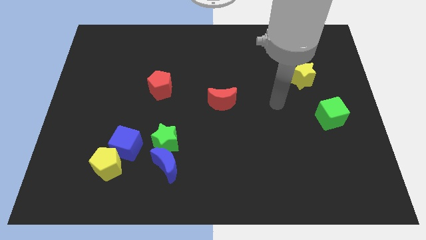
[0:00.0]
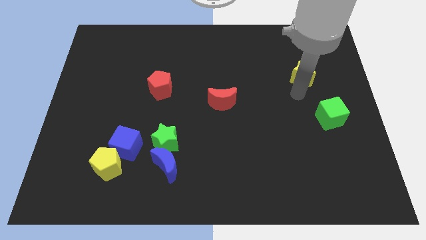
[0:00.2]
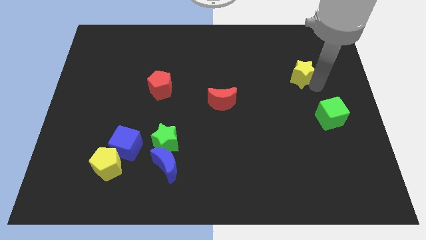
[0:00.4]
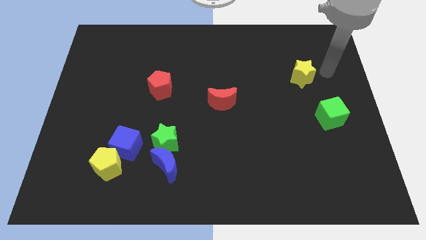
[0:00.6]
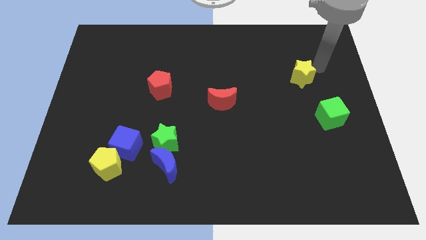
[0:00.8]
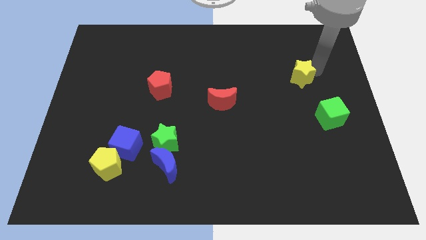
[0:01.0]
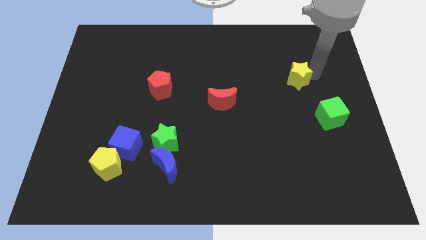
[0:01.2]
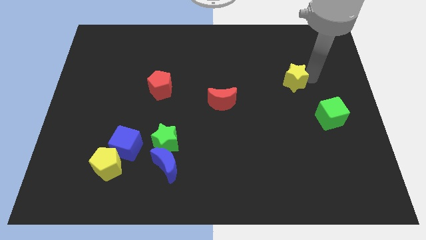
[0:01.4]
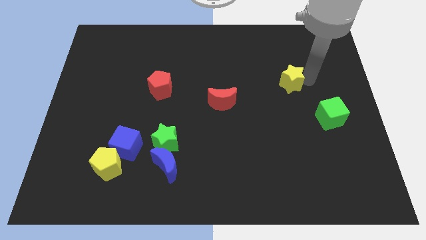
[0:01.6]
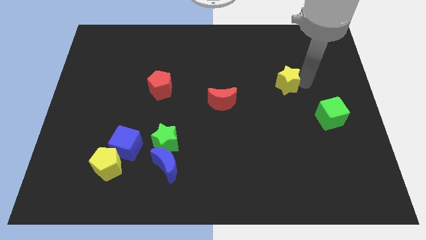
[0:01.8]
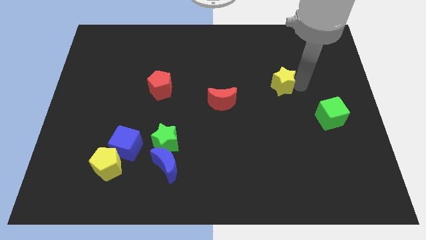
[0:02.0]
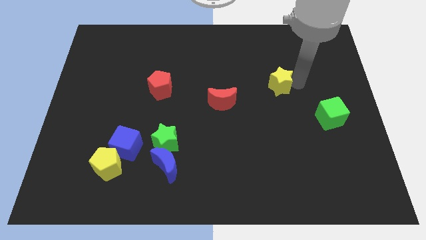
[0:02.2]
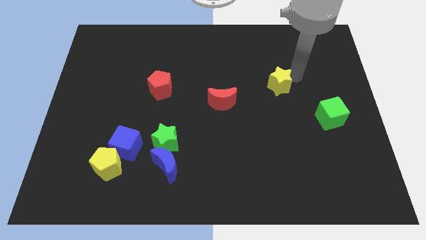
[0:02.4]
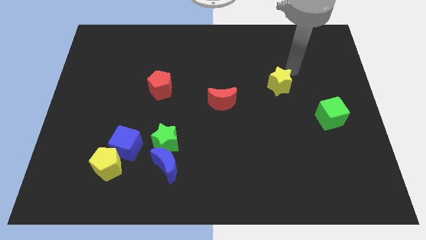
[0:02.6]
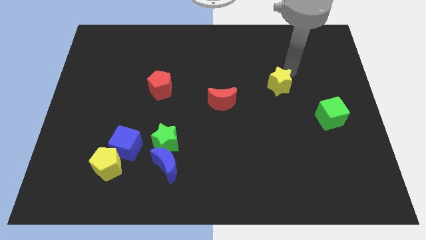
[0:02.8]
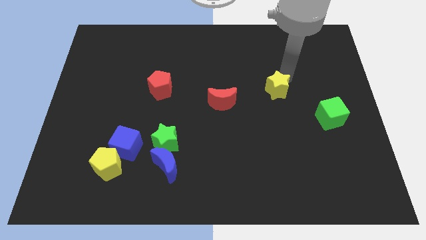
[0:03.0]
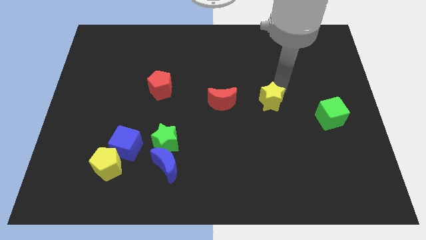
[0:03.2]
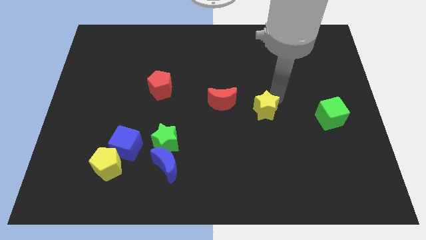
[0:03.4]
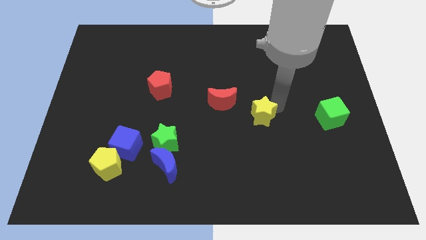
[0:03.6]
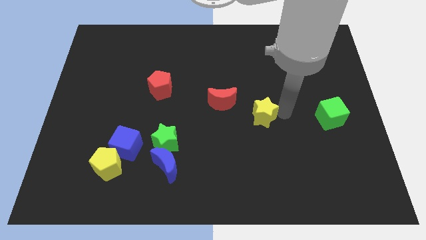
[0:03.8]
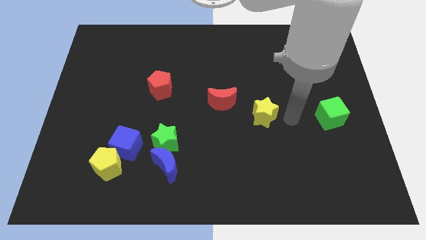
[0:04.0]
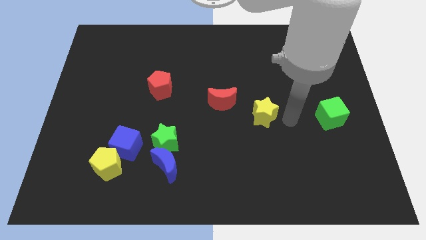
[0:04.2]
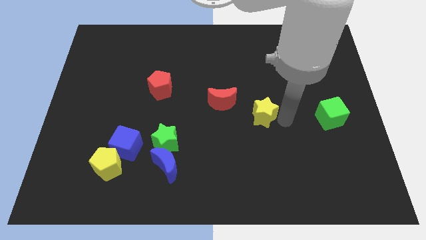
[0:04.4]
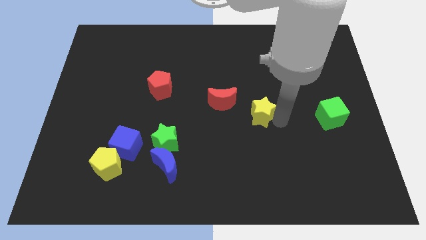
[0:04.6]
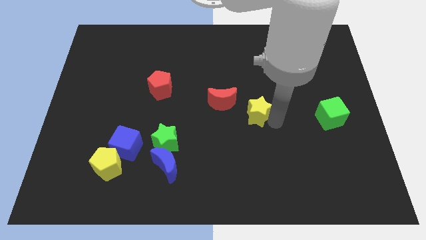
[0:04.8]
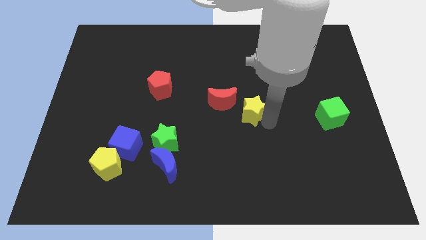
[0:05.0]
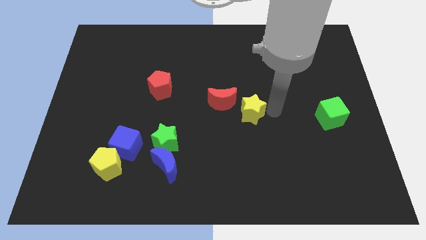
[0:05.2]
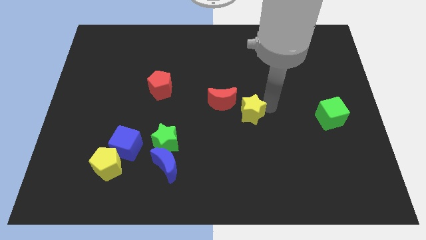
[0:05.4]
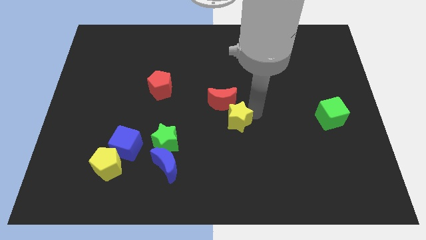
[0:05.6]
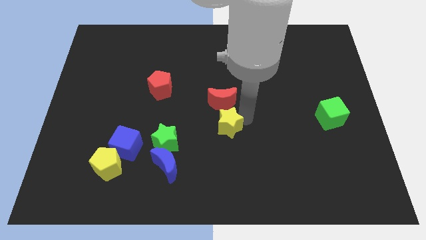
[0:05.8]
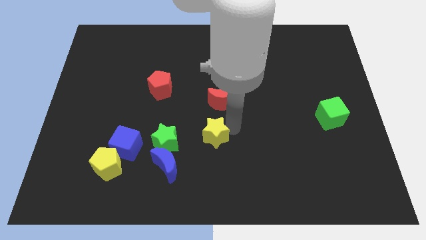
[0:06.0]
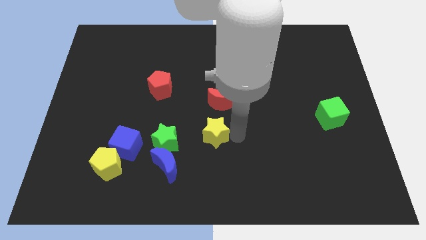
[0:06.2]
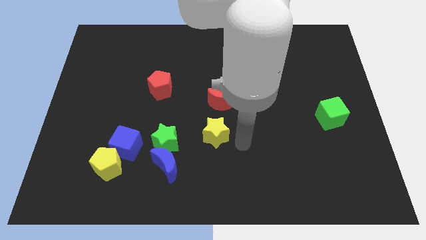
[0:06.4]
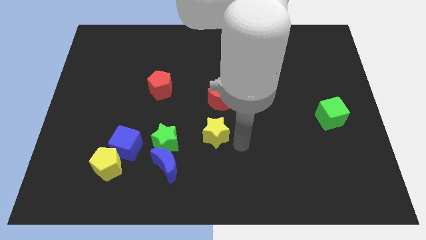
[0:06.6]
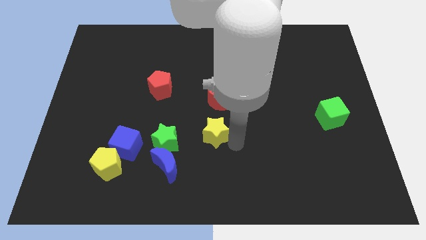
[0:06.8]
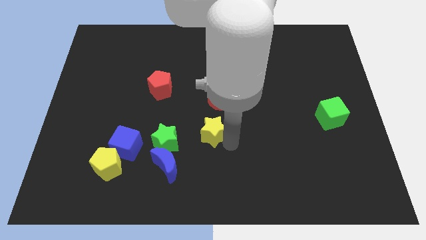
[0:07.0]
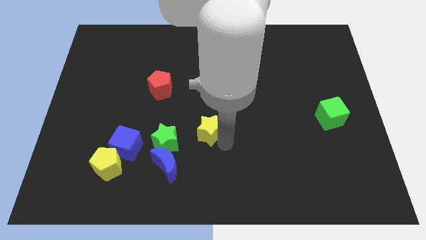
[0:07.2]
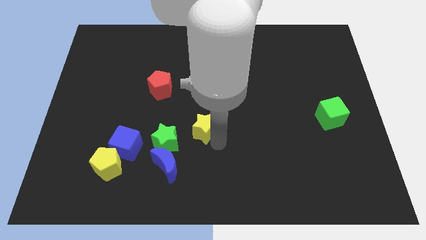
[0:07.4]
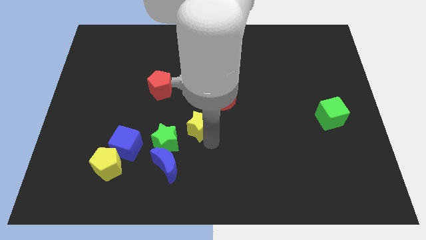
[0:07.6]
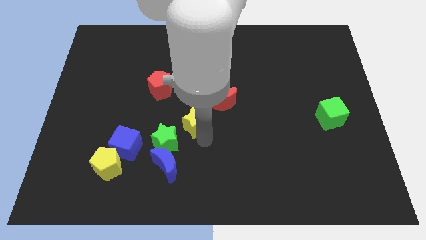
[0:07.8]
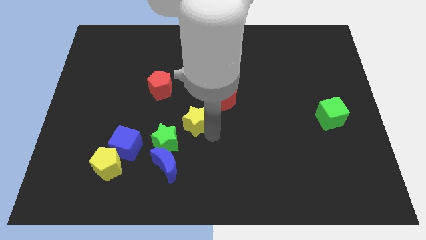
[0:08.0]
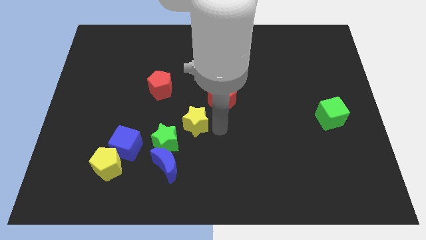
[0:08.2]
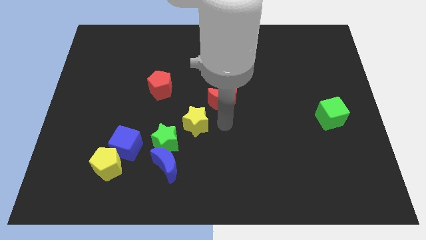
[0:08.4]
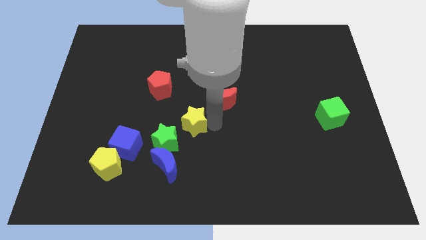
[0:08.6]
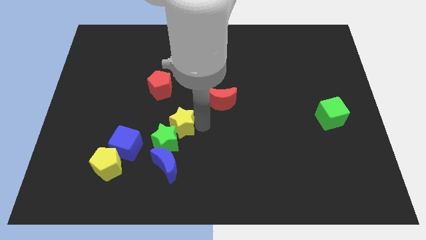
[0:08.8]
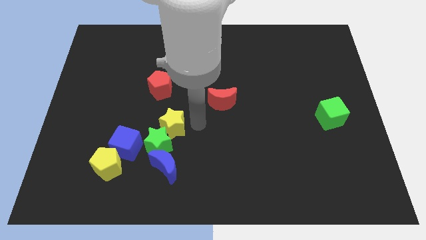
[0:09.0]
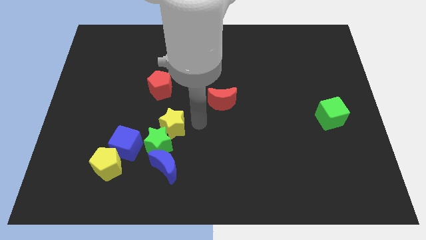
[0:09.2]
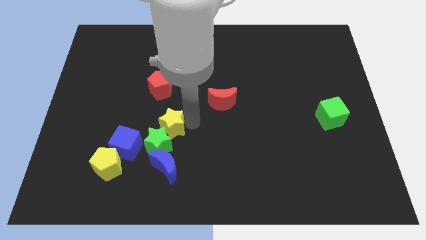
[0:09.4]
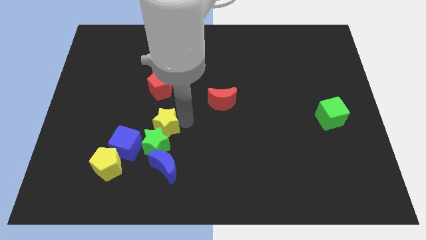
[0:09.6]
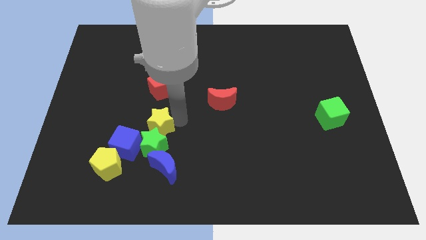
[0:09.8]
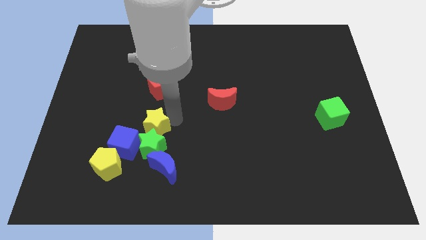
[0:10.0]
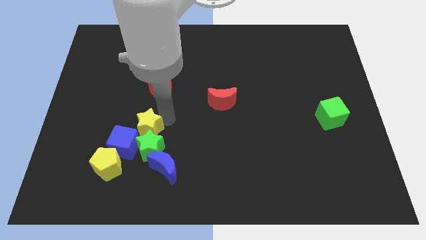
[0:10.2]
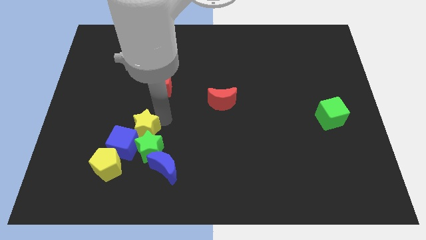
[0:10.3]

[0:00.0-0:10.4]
push the yellow star next to the blue cube

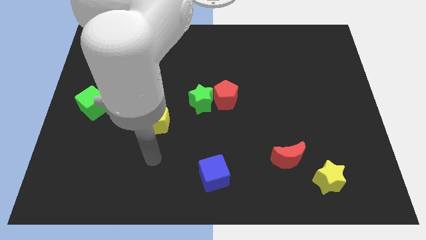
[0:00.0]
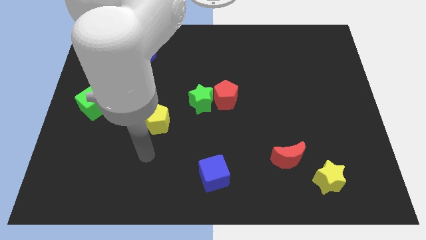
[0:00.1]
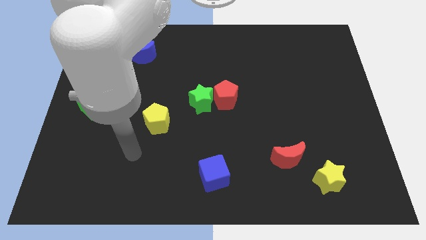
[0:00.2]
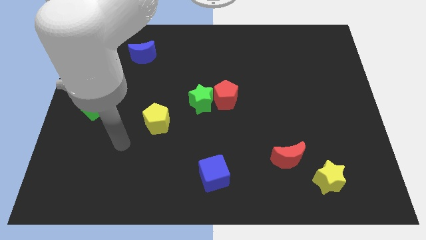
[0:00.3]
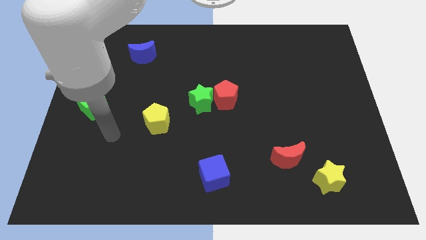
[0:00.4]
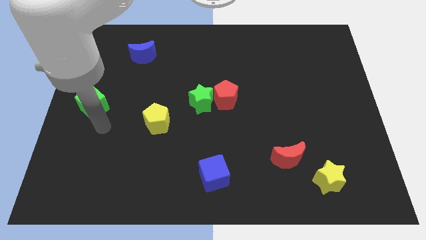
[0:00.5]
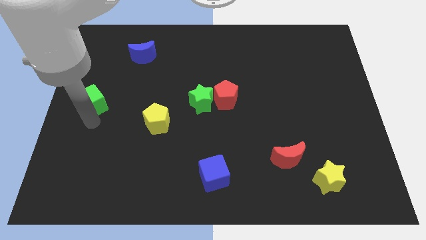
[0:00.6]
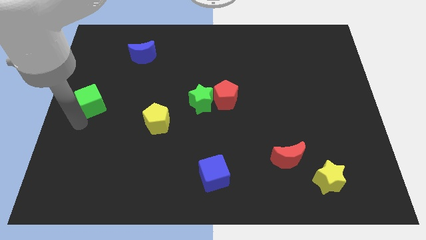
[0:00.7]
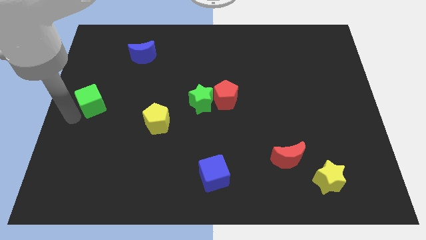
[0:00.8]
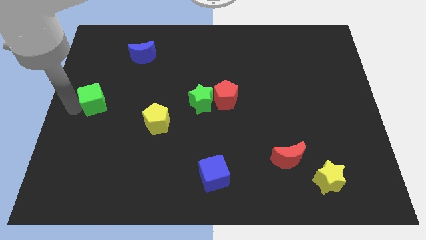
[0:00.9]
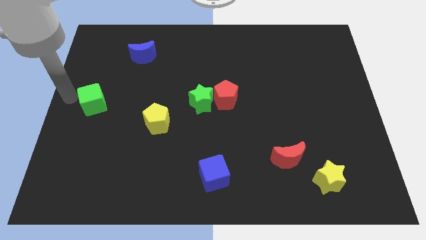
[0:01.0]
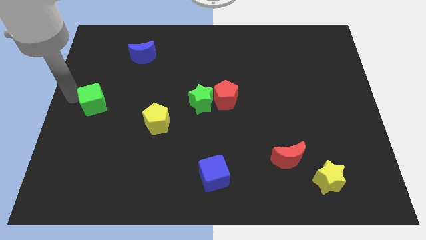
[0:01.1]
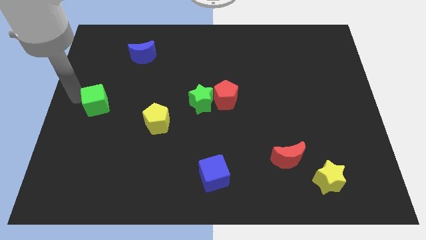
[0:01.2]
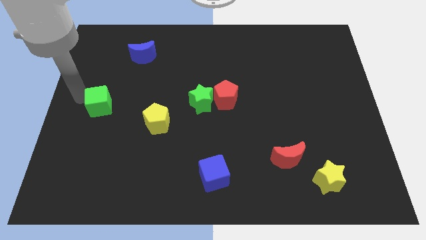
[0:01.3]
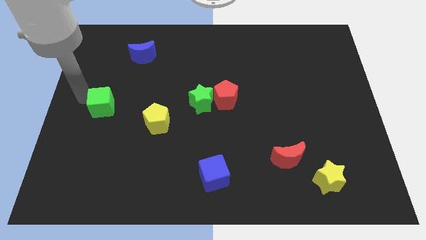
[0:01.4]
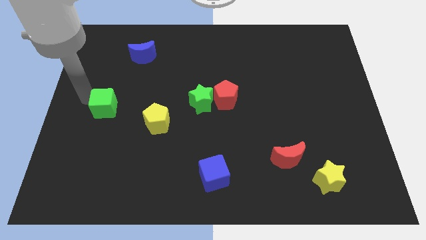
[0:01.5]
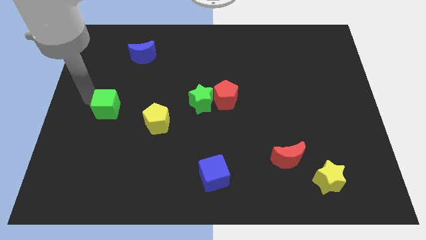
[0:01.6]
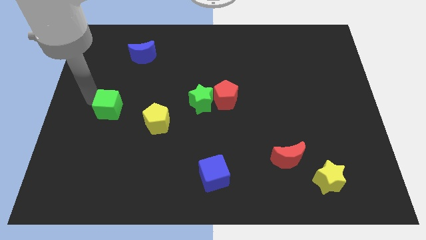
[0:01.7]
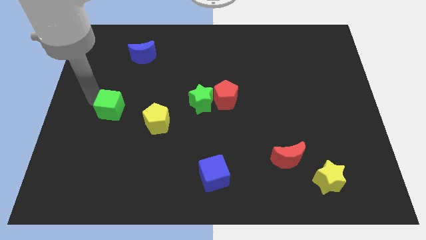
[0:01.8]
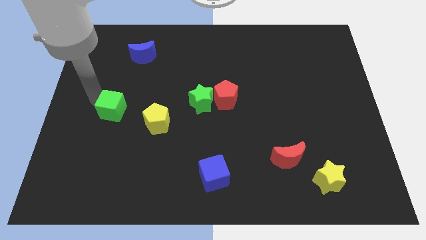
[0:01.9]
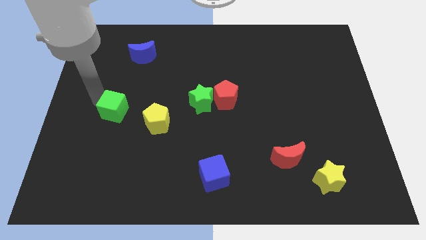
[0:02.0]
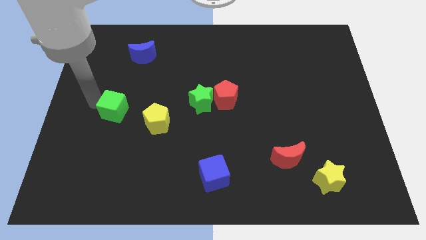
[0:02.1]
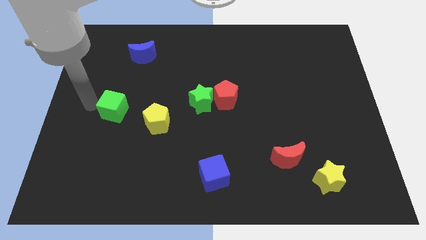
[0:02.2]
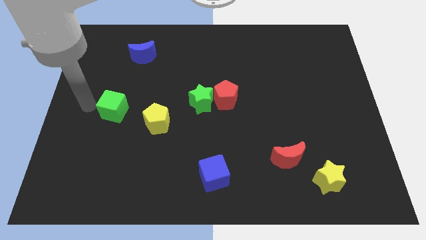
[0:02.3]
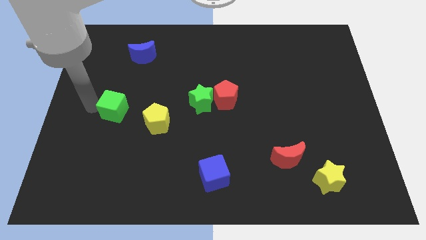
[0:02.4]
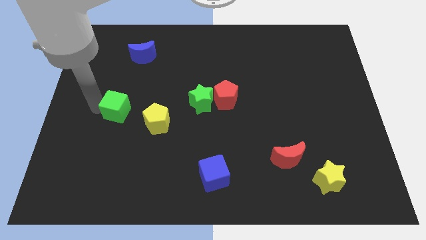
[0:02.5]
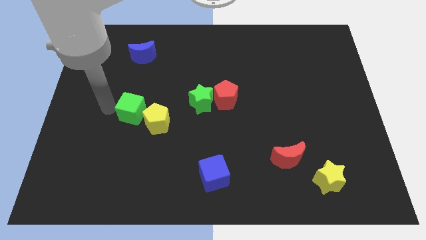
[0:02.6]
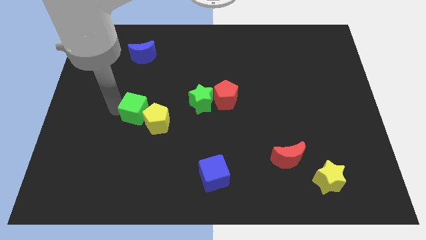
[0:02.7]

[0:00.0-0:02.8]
put the green cube next to the yellow pentagon
